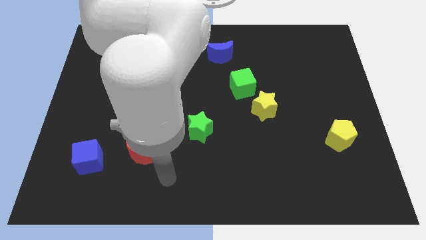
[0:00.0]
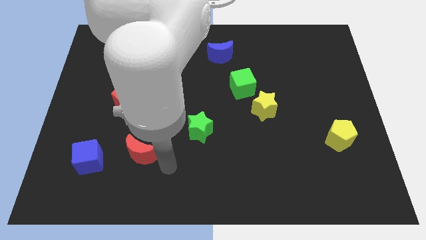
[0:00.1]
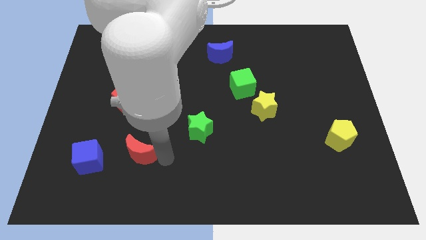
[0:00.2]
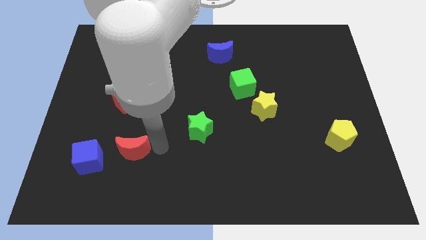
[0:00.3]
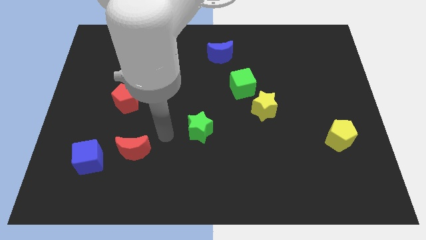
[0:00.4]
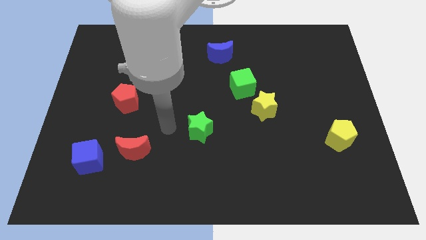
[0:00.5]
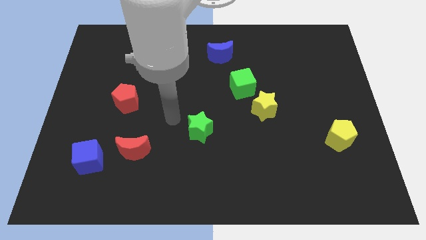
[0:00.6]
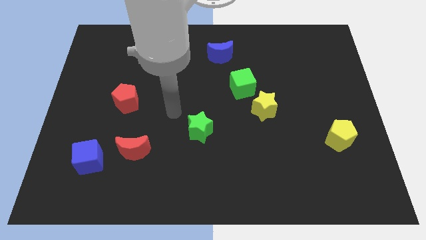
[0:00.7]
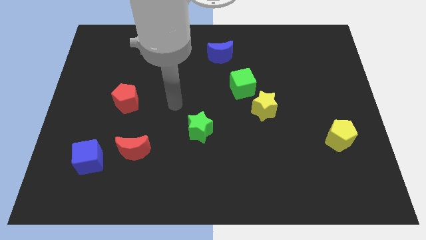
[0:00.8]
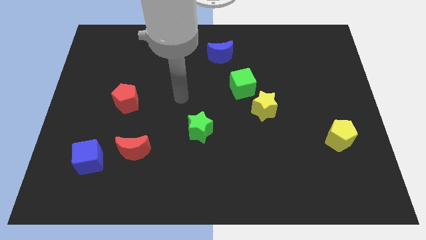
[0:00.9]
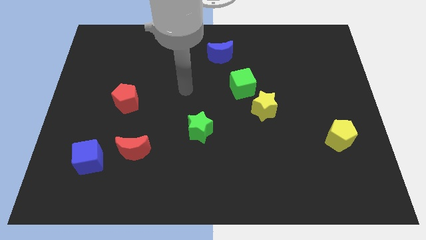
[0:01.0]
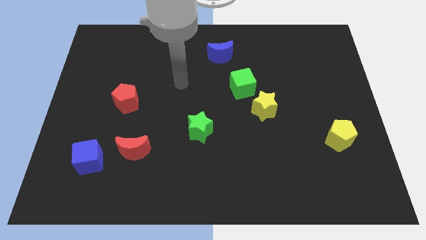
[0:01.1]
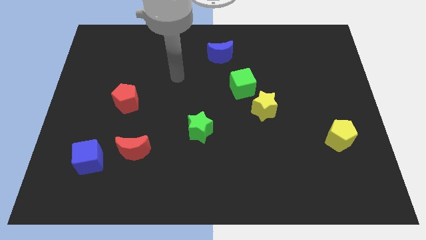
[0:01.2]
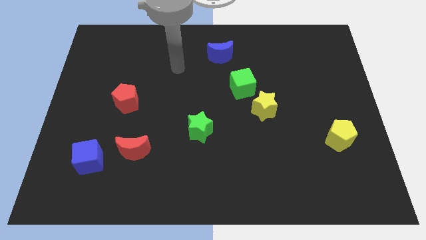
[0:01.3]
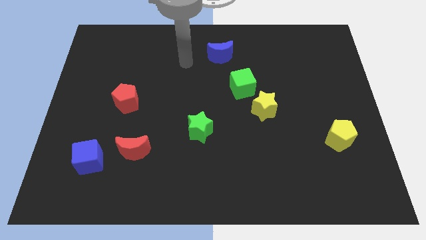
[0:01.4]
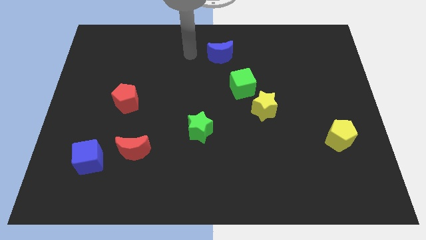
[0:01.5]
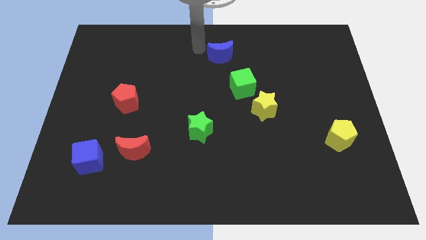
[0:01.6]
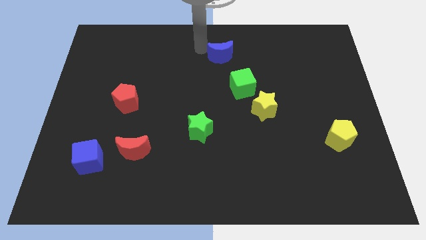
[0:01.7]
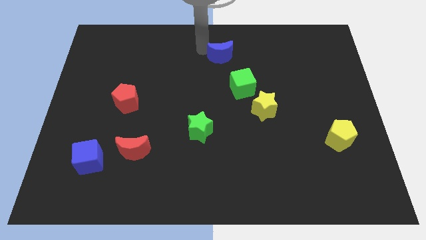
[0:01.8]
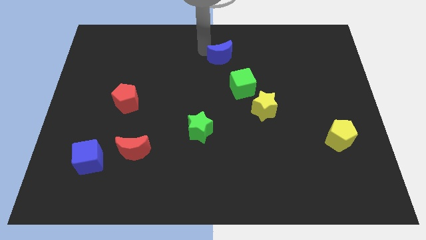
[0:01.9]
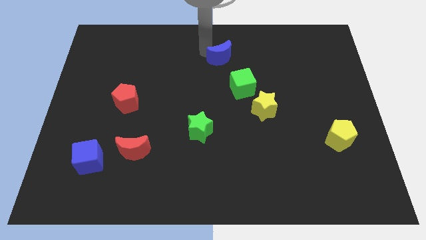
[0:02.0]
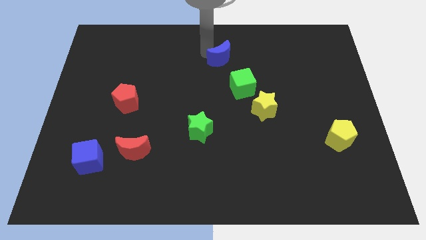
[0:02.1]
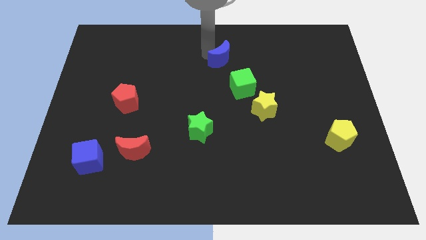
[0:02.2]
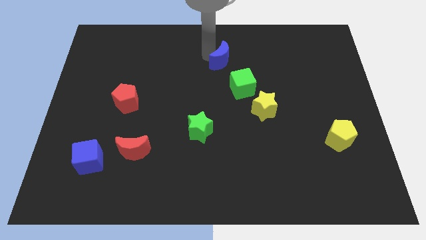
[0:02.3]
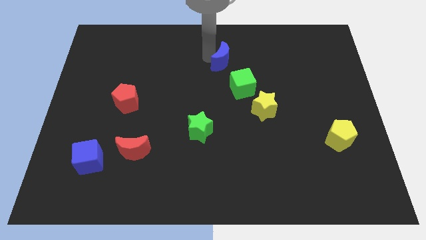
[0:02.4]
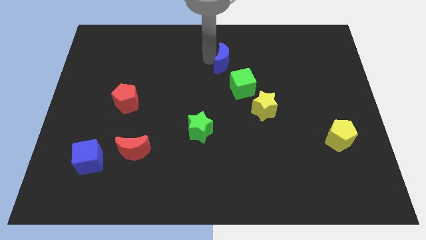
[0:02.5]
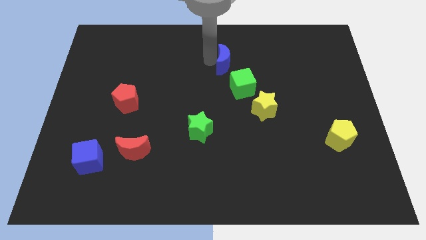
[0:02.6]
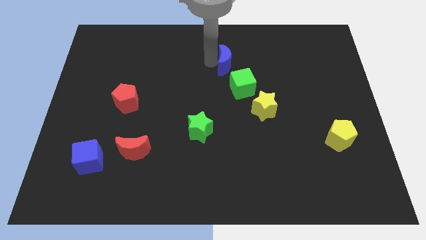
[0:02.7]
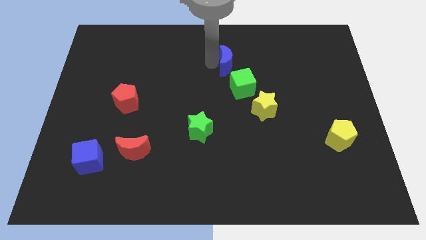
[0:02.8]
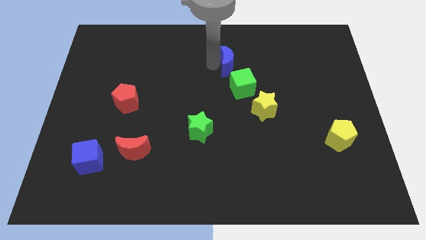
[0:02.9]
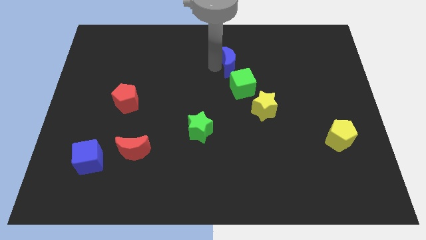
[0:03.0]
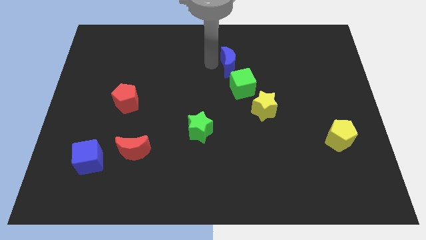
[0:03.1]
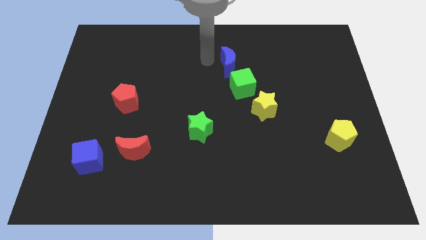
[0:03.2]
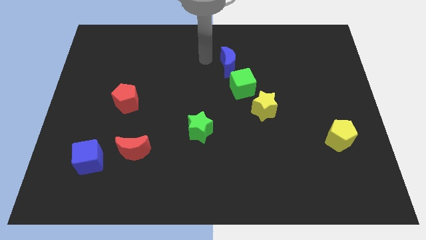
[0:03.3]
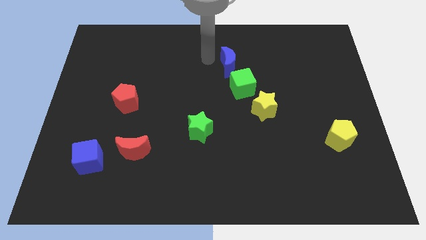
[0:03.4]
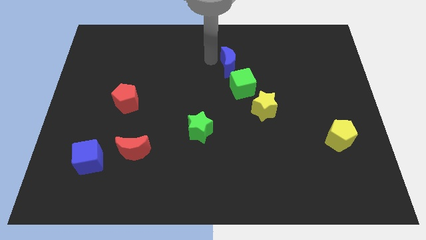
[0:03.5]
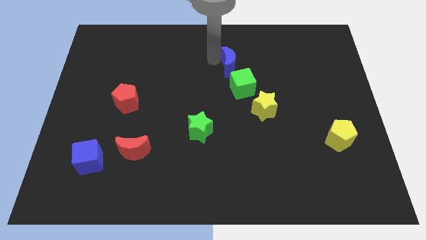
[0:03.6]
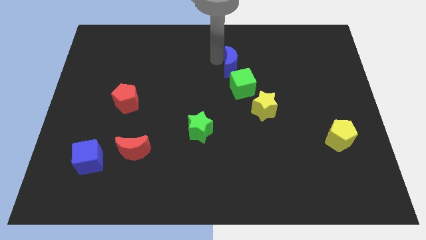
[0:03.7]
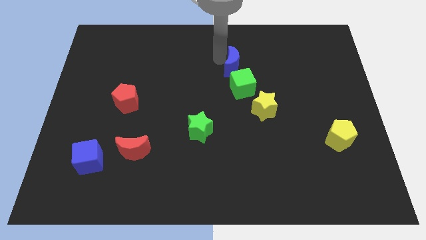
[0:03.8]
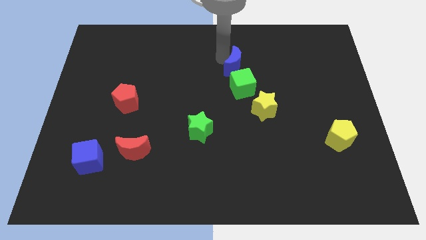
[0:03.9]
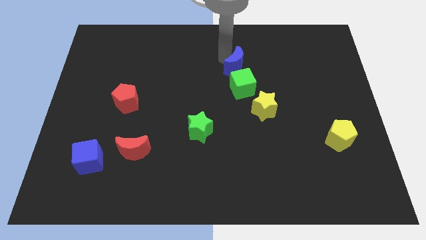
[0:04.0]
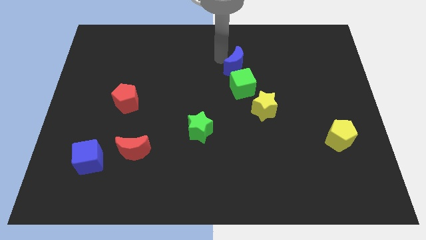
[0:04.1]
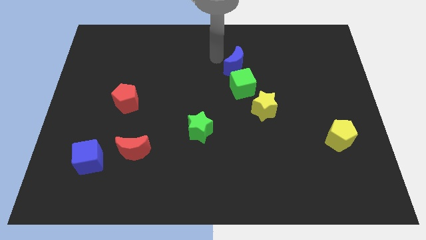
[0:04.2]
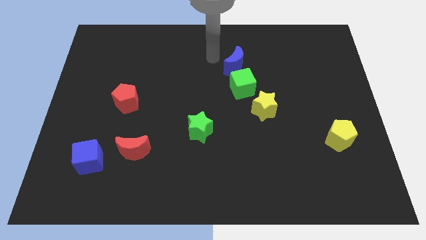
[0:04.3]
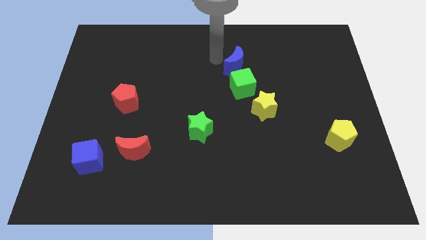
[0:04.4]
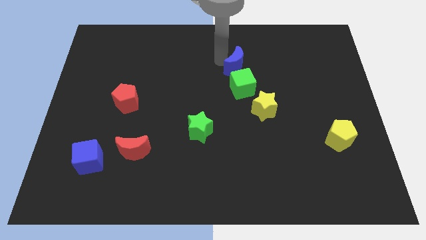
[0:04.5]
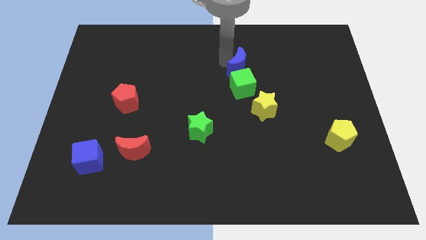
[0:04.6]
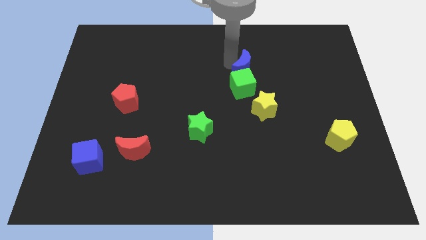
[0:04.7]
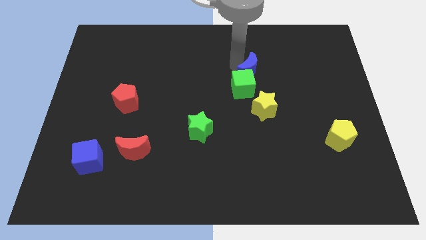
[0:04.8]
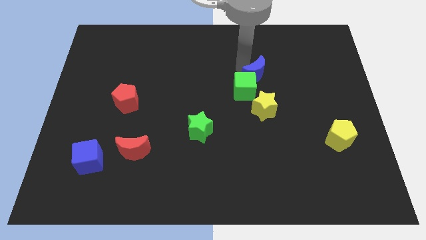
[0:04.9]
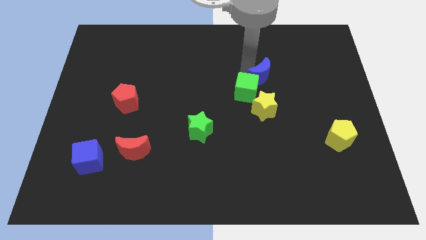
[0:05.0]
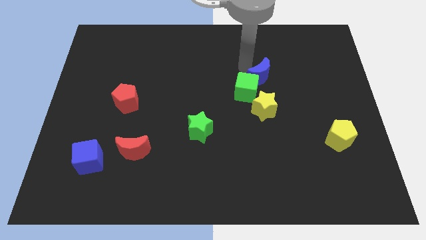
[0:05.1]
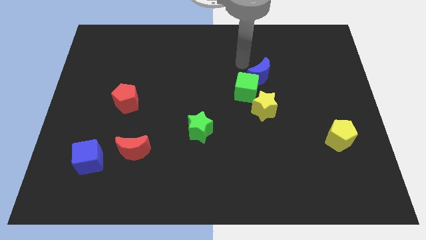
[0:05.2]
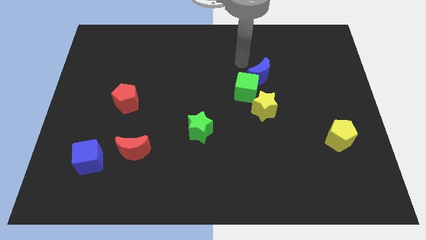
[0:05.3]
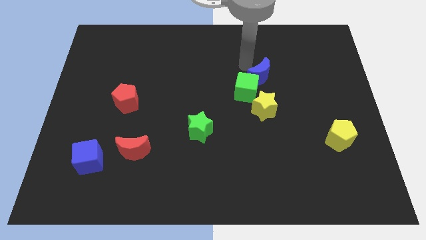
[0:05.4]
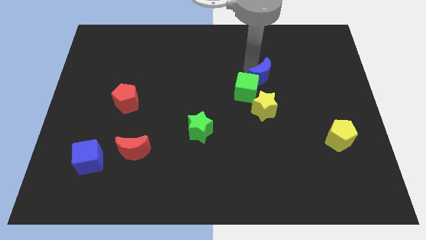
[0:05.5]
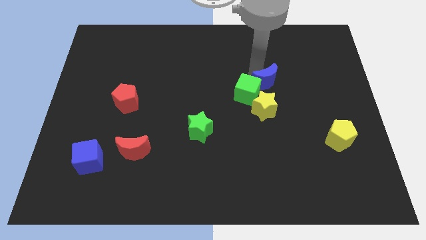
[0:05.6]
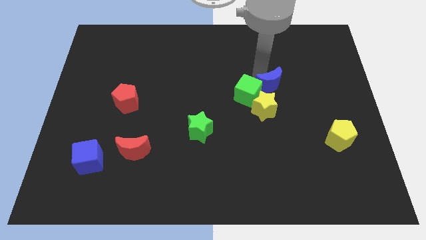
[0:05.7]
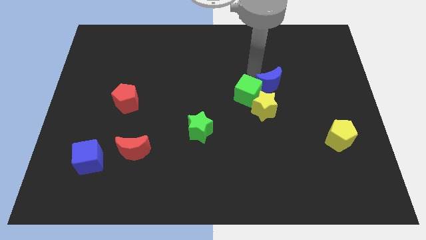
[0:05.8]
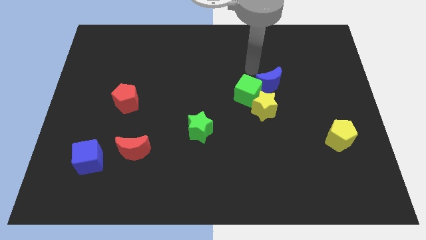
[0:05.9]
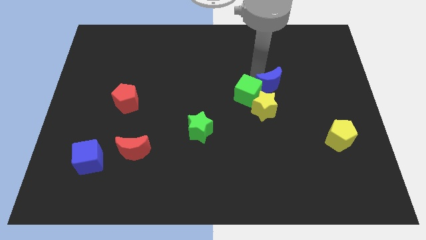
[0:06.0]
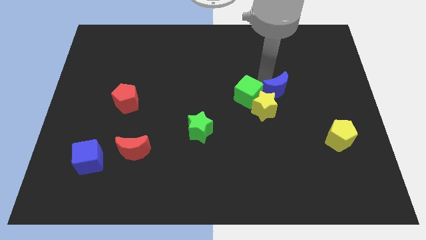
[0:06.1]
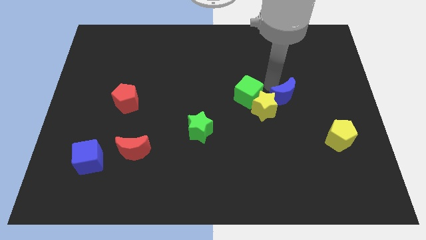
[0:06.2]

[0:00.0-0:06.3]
move the blue moon downwards and right diagonally

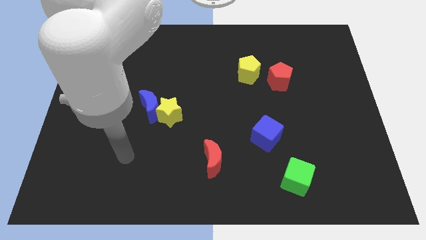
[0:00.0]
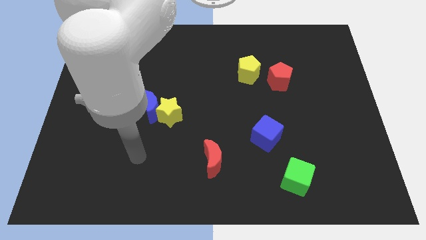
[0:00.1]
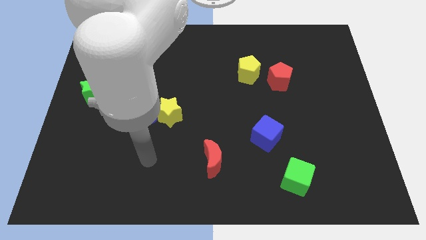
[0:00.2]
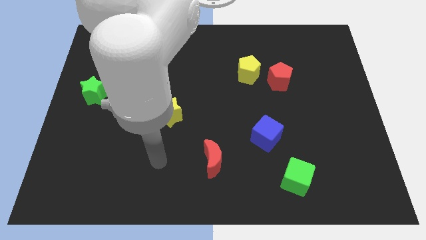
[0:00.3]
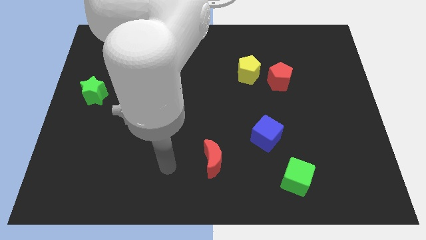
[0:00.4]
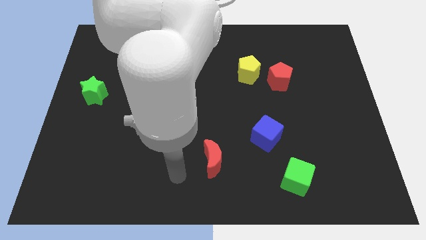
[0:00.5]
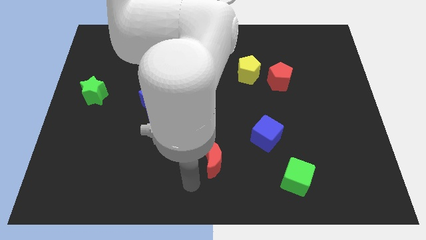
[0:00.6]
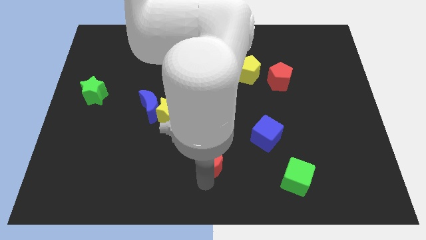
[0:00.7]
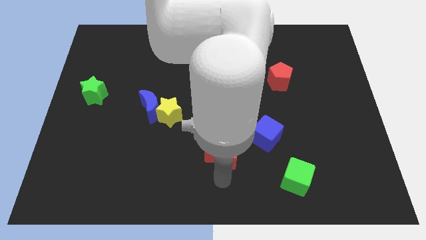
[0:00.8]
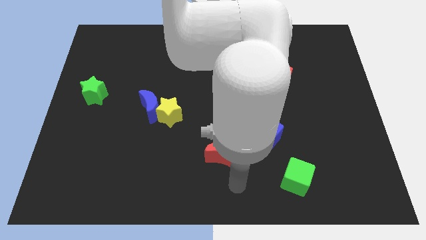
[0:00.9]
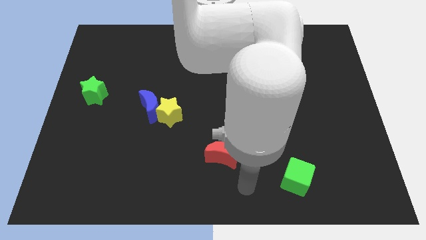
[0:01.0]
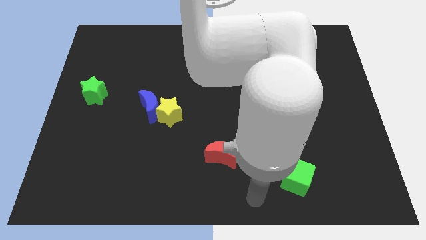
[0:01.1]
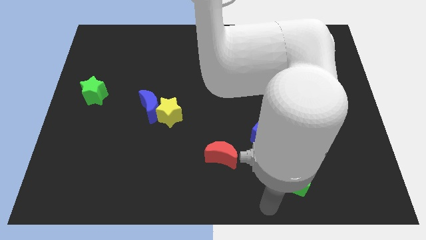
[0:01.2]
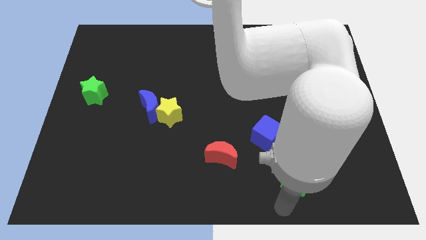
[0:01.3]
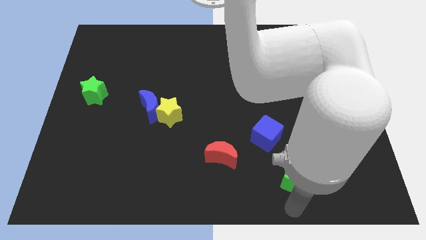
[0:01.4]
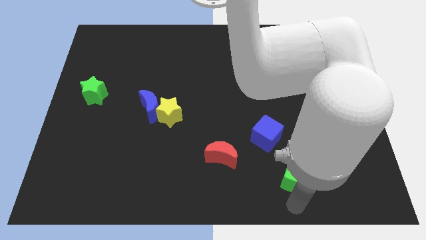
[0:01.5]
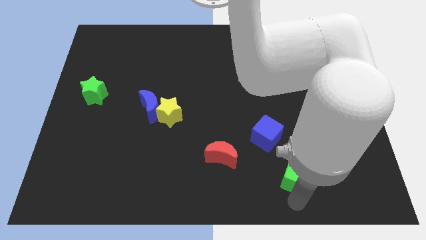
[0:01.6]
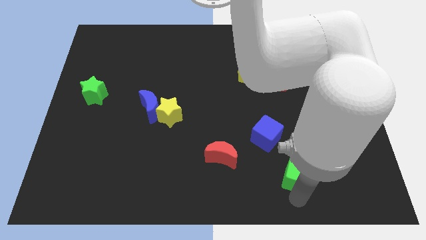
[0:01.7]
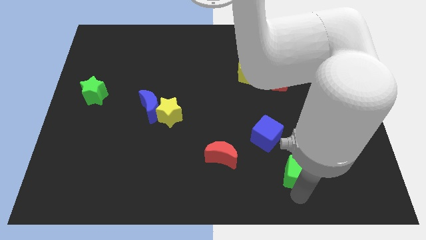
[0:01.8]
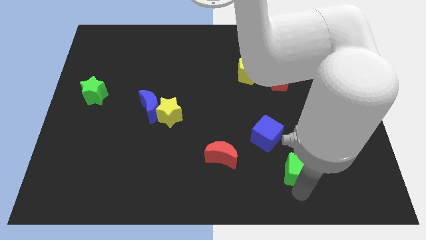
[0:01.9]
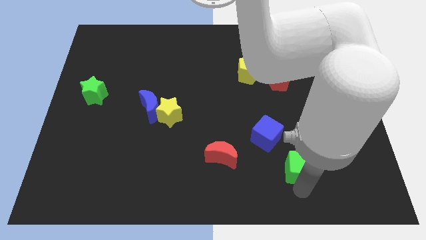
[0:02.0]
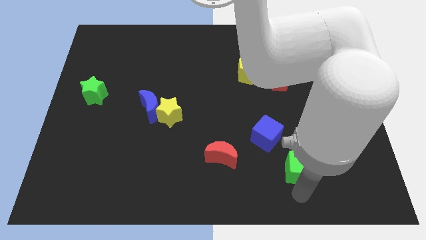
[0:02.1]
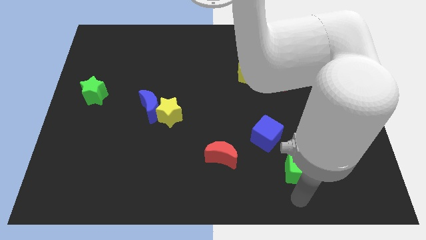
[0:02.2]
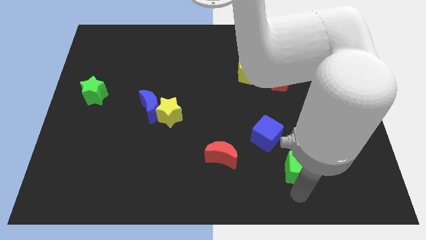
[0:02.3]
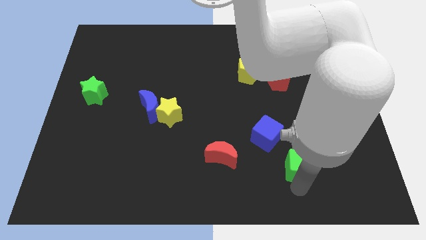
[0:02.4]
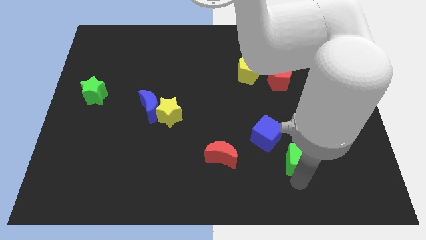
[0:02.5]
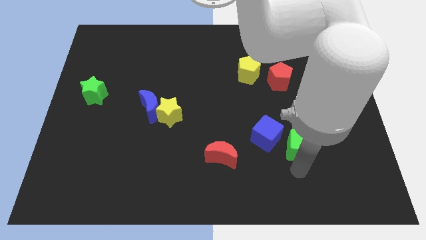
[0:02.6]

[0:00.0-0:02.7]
move the green cube upwards somewhat
